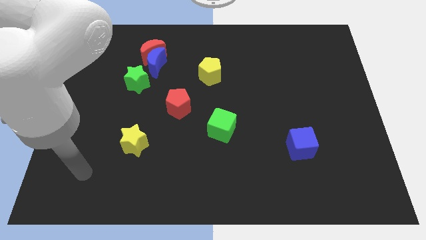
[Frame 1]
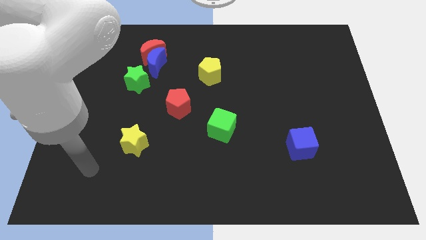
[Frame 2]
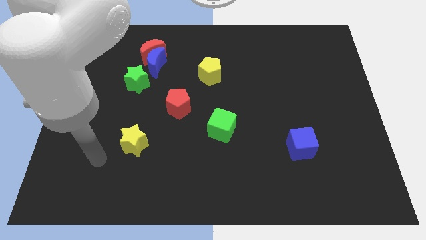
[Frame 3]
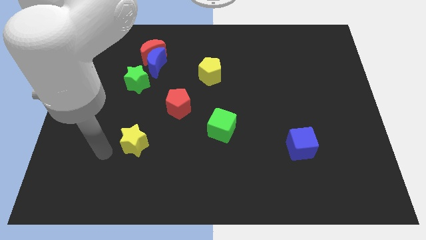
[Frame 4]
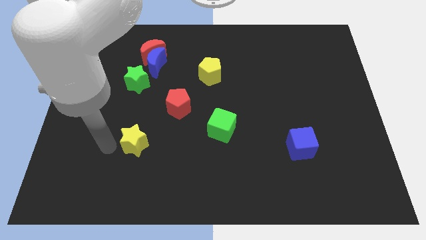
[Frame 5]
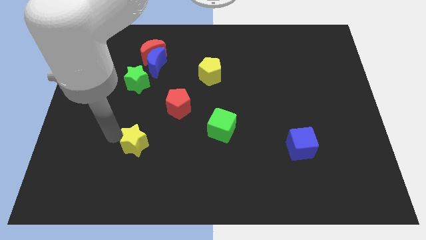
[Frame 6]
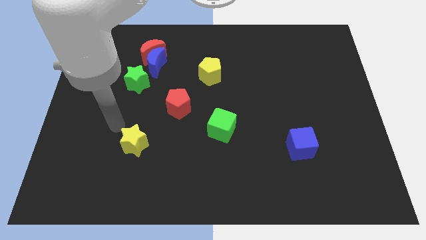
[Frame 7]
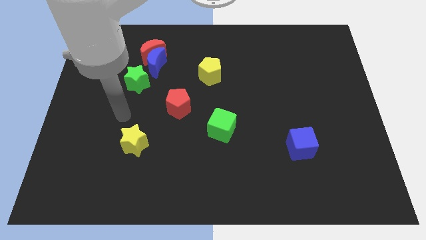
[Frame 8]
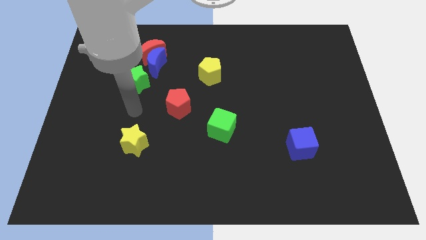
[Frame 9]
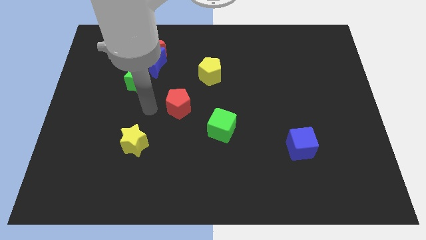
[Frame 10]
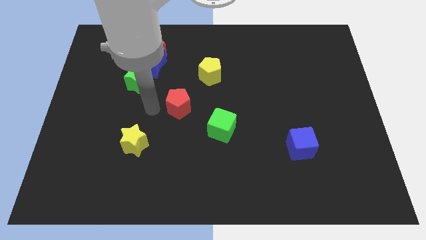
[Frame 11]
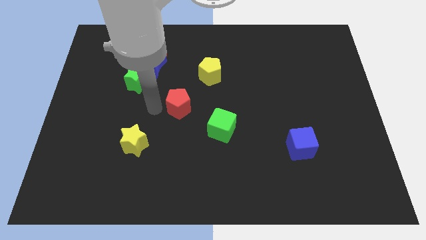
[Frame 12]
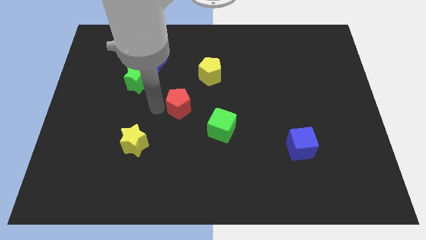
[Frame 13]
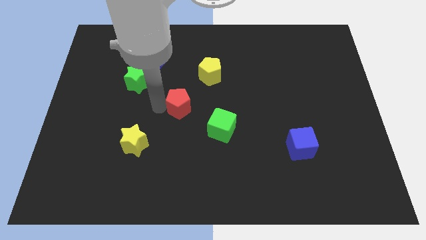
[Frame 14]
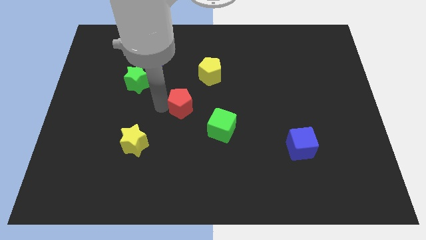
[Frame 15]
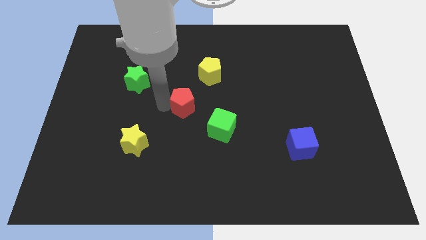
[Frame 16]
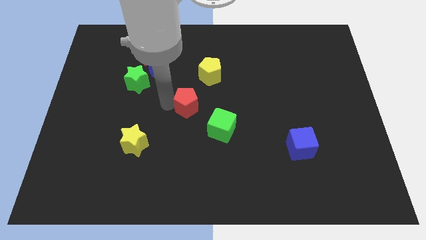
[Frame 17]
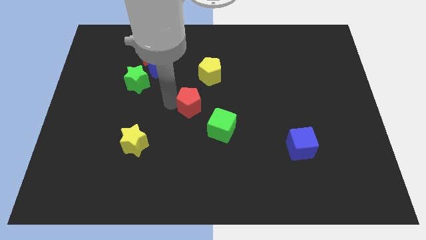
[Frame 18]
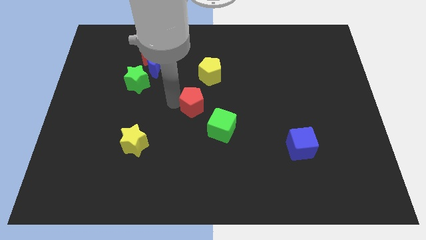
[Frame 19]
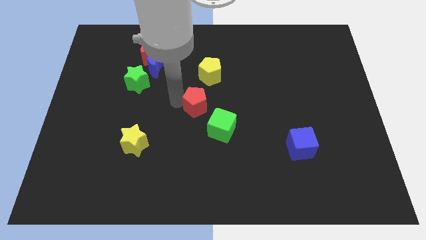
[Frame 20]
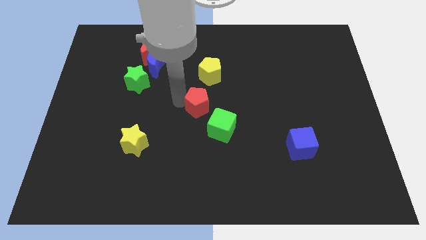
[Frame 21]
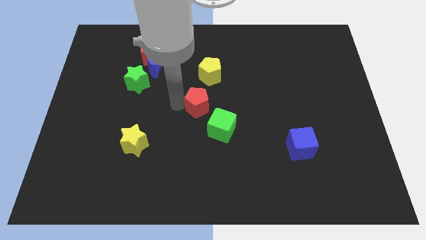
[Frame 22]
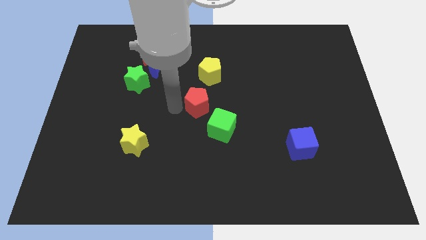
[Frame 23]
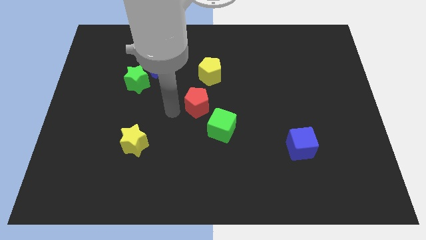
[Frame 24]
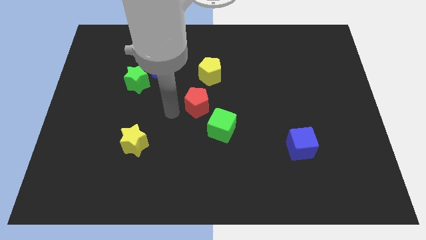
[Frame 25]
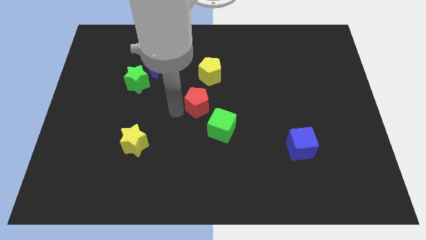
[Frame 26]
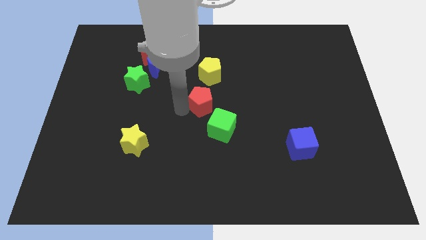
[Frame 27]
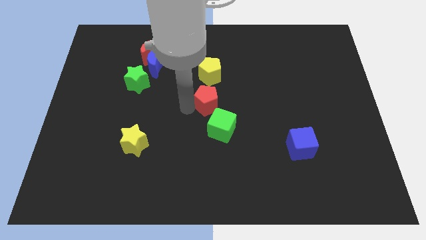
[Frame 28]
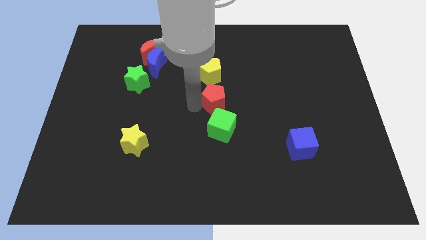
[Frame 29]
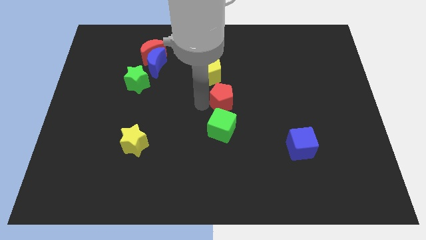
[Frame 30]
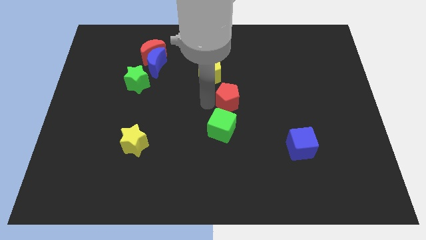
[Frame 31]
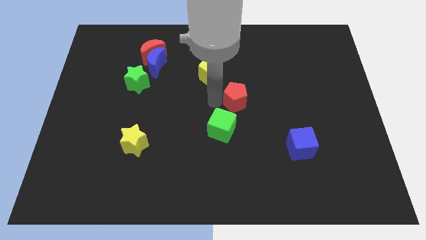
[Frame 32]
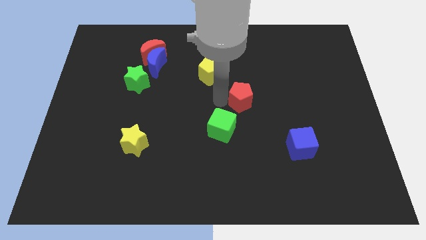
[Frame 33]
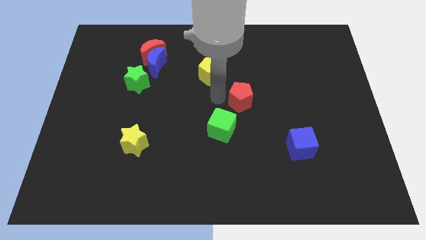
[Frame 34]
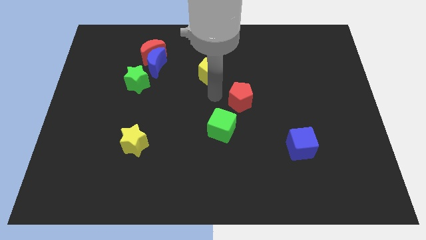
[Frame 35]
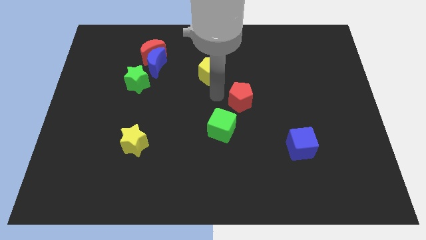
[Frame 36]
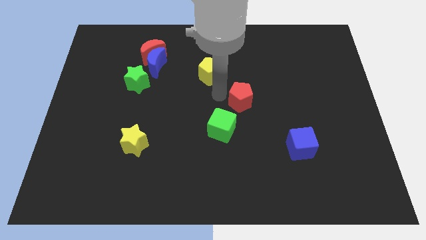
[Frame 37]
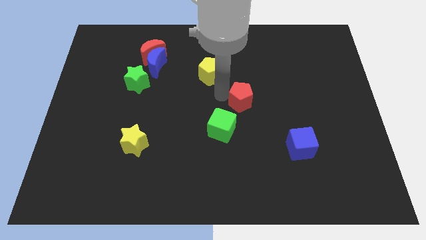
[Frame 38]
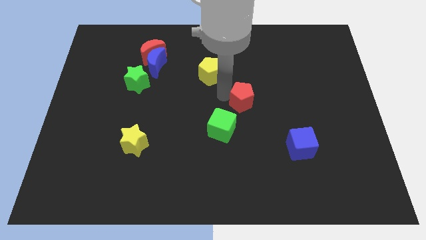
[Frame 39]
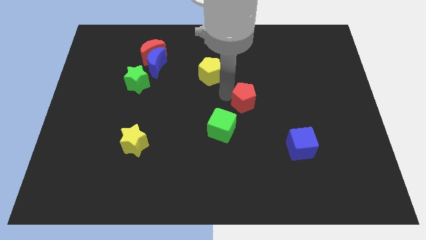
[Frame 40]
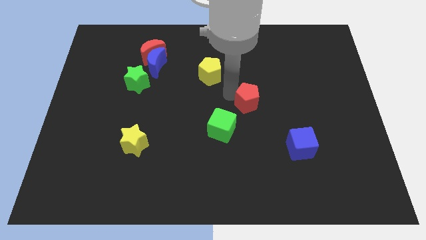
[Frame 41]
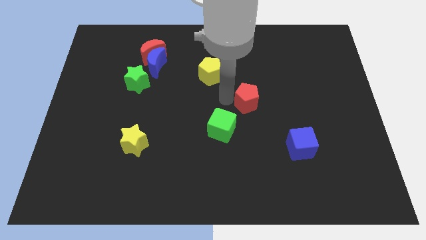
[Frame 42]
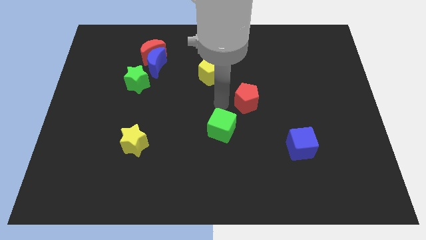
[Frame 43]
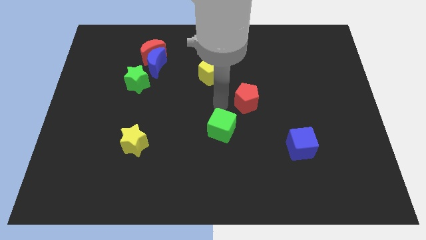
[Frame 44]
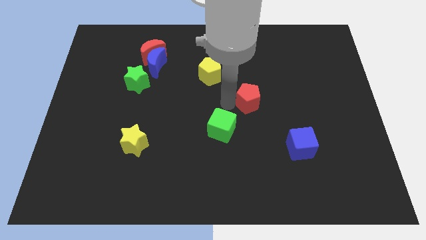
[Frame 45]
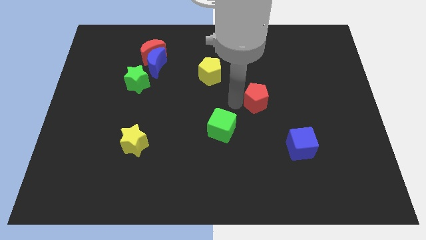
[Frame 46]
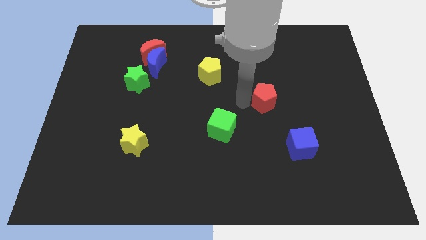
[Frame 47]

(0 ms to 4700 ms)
move the red pentagon to the right

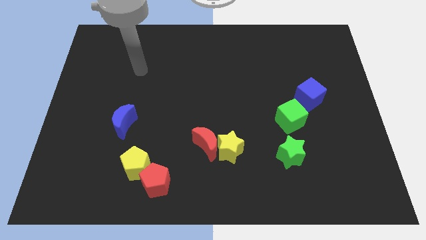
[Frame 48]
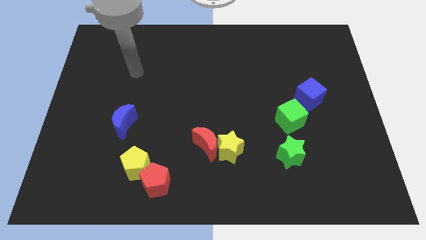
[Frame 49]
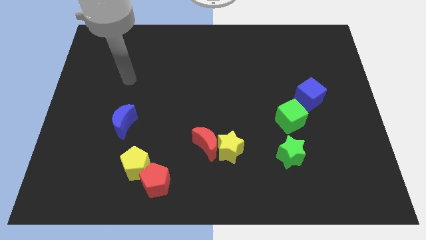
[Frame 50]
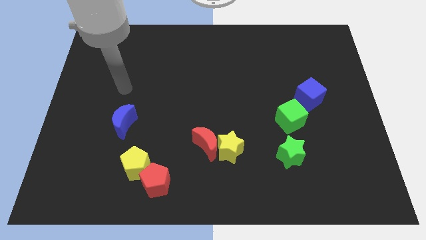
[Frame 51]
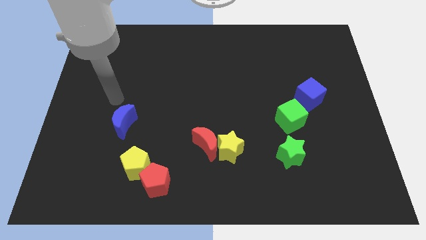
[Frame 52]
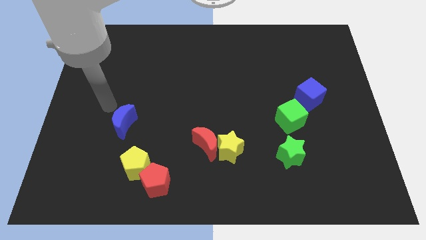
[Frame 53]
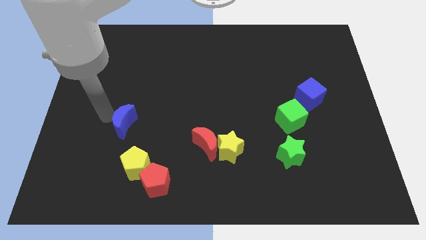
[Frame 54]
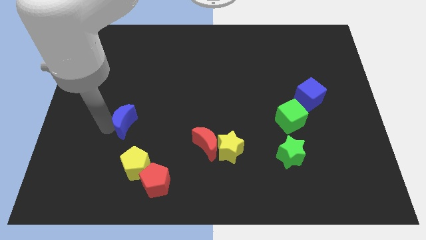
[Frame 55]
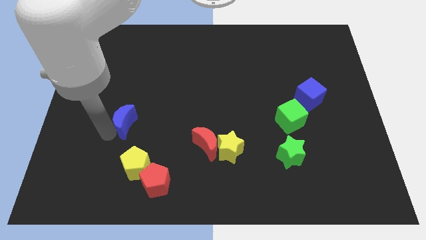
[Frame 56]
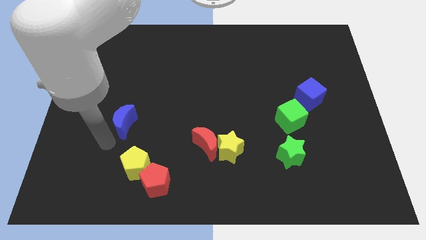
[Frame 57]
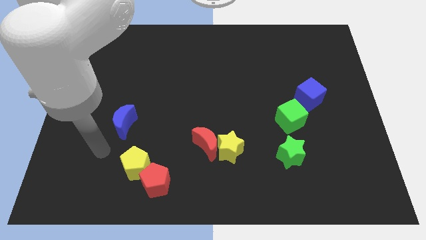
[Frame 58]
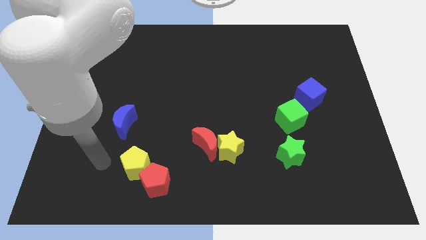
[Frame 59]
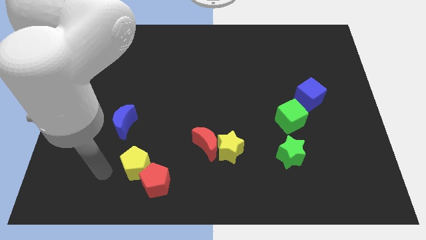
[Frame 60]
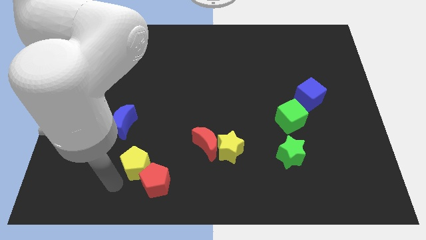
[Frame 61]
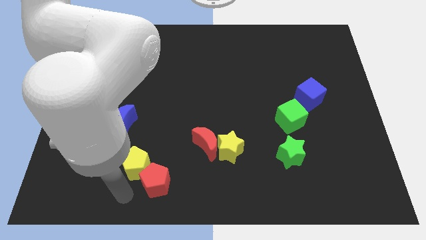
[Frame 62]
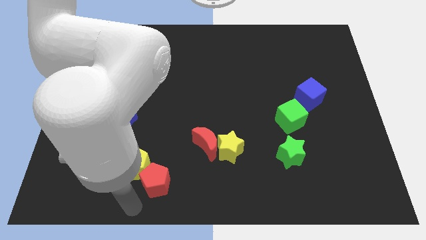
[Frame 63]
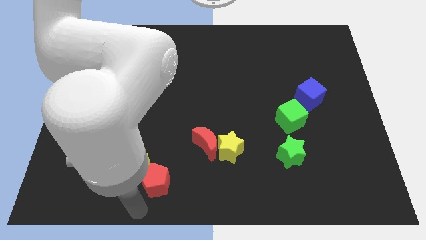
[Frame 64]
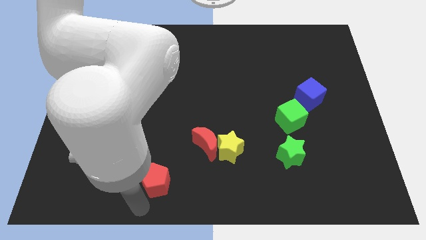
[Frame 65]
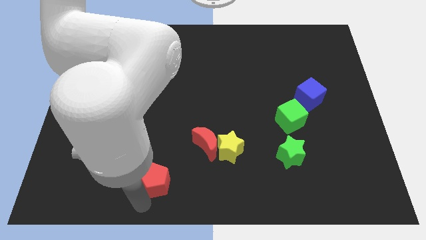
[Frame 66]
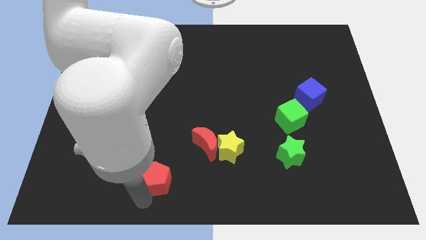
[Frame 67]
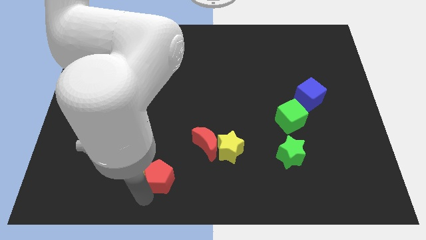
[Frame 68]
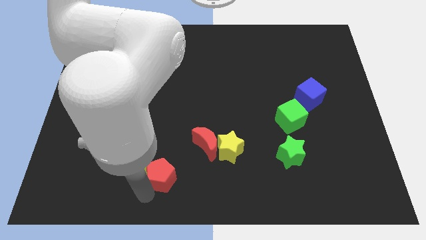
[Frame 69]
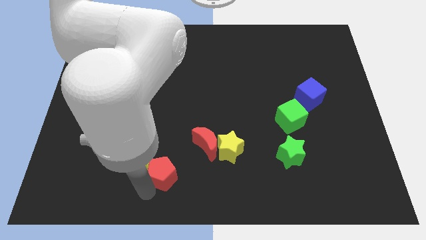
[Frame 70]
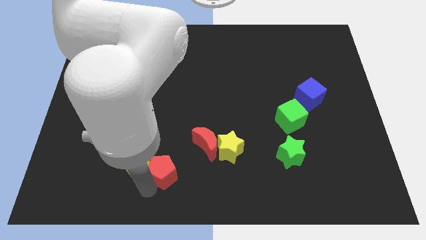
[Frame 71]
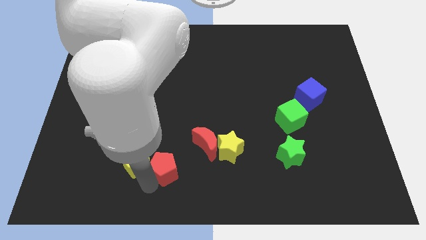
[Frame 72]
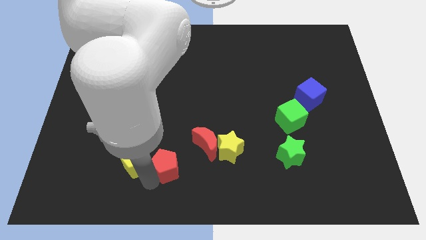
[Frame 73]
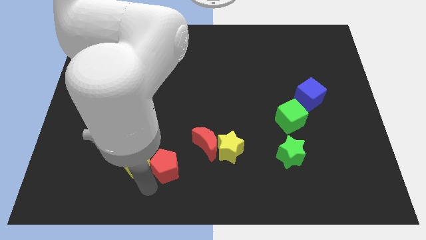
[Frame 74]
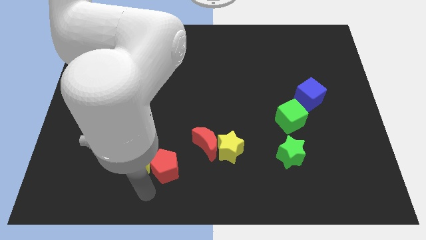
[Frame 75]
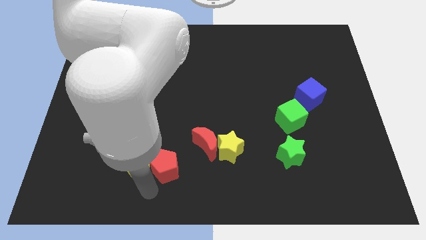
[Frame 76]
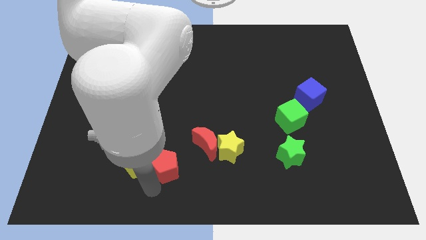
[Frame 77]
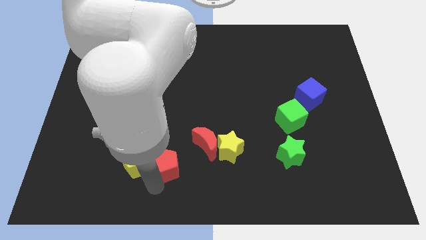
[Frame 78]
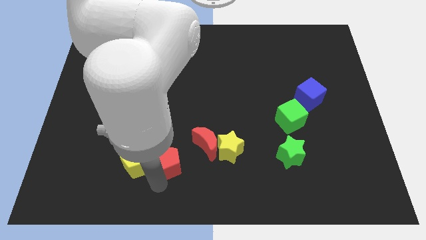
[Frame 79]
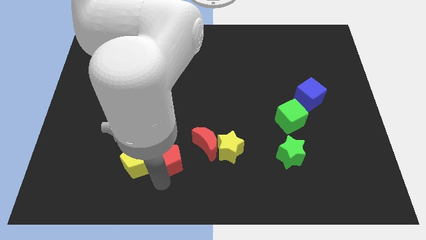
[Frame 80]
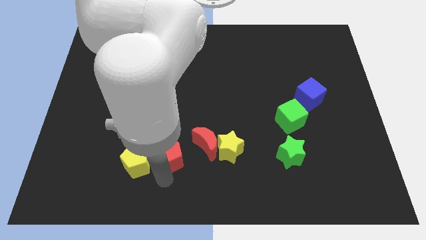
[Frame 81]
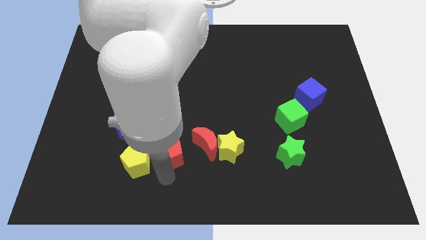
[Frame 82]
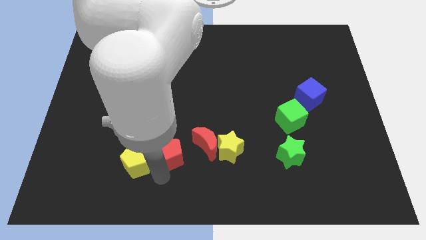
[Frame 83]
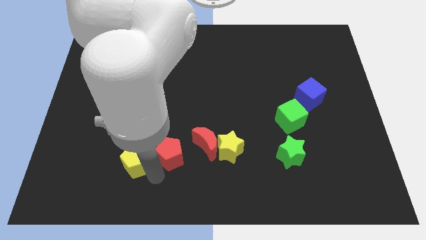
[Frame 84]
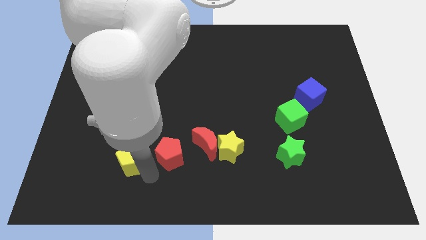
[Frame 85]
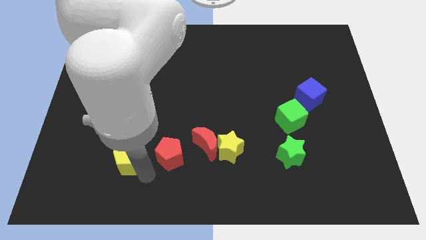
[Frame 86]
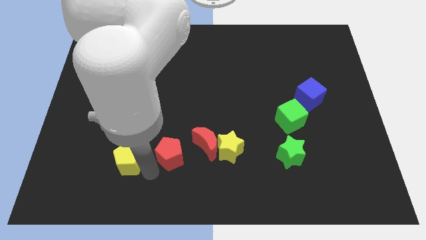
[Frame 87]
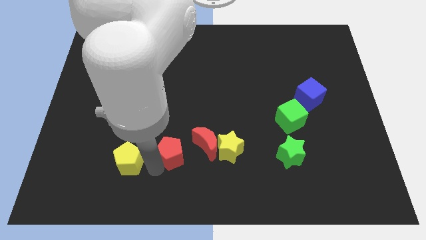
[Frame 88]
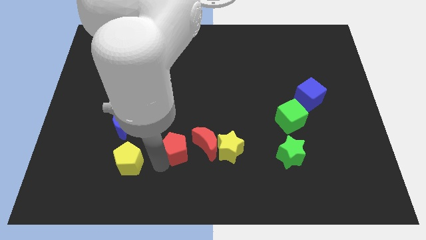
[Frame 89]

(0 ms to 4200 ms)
slide the red pentagon somewhat upwards
